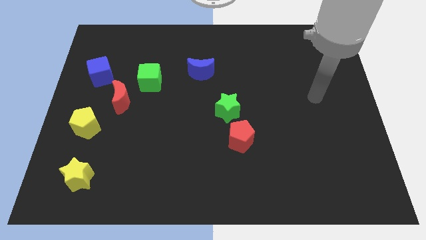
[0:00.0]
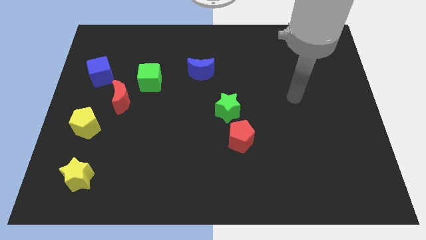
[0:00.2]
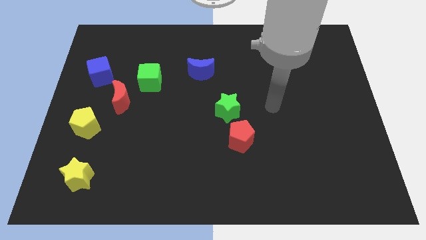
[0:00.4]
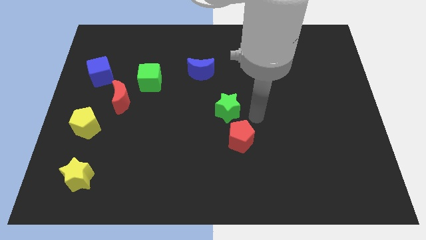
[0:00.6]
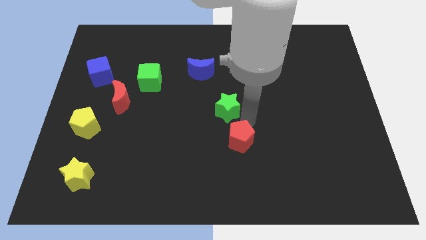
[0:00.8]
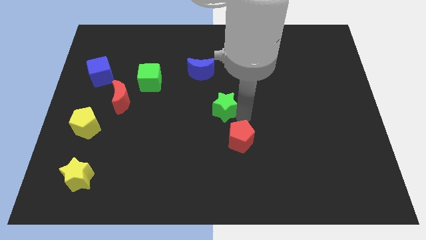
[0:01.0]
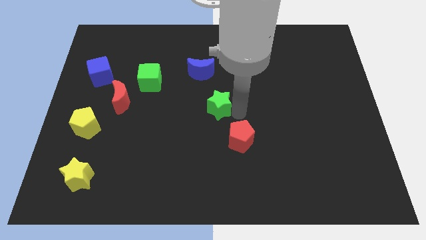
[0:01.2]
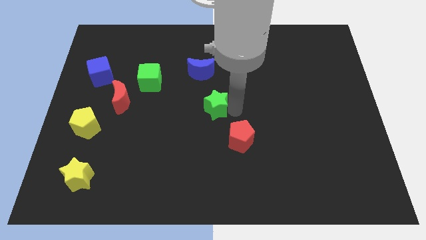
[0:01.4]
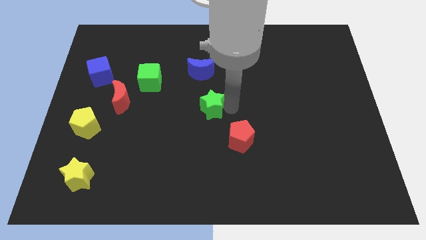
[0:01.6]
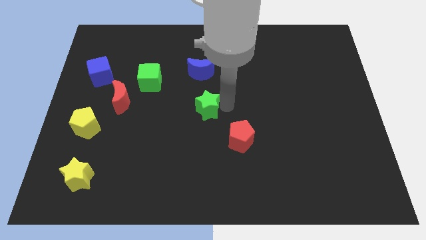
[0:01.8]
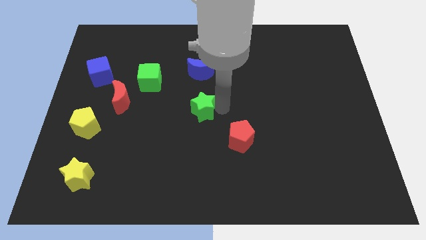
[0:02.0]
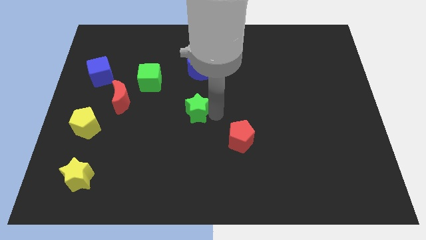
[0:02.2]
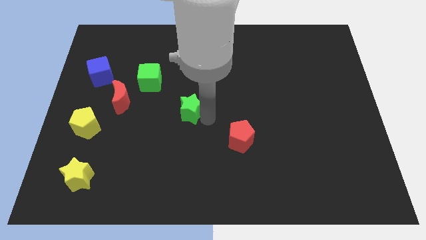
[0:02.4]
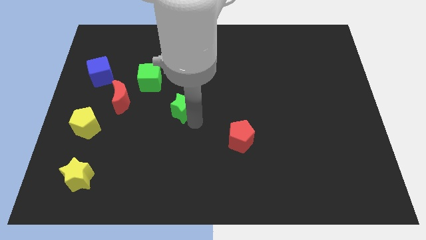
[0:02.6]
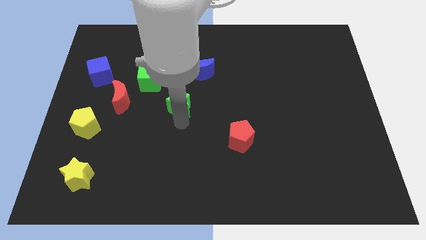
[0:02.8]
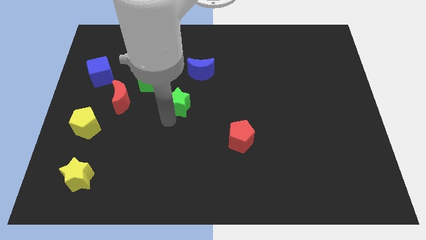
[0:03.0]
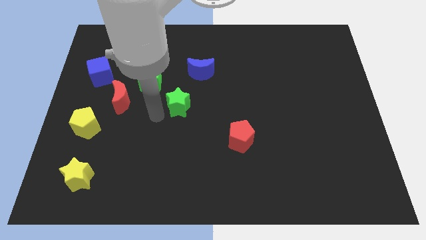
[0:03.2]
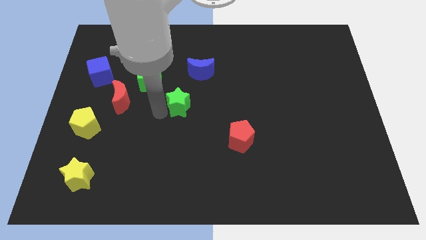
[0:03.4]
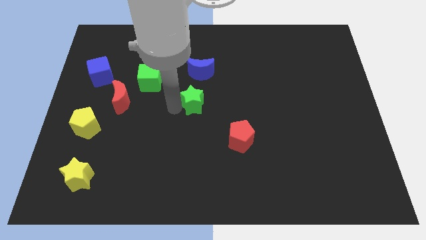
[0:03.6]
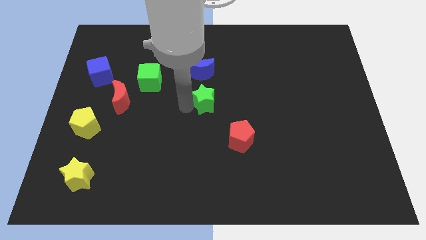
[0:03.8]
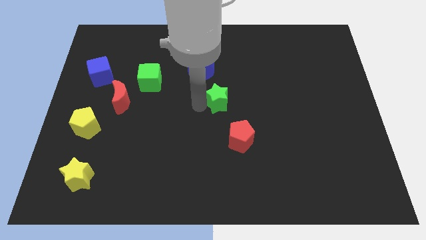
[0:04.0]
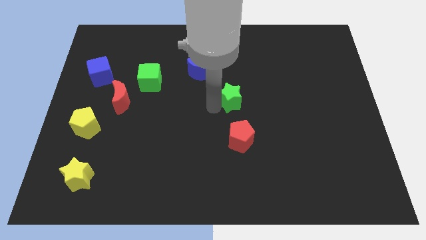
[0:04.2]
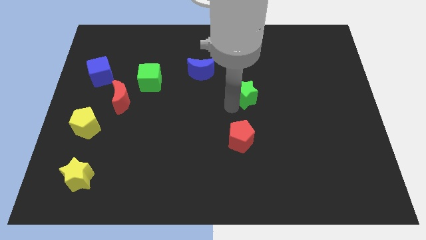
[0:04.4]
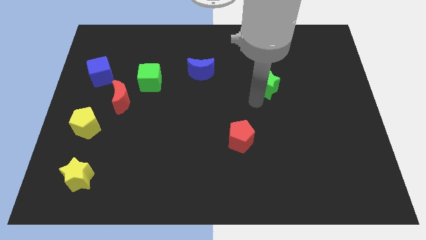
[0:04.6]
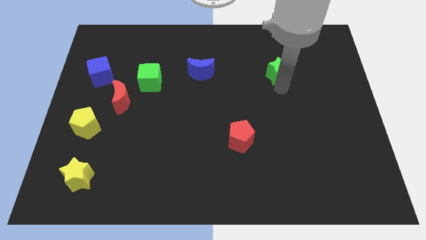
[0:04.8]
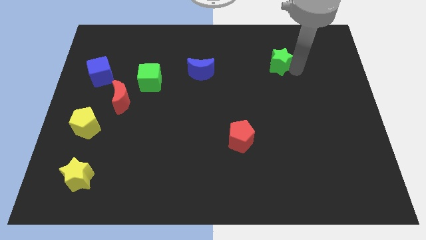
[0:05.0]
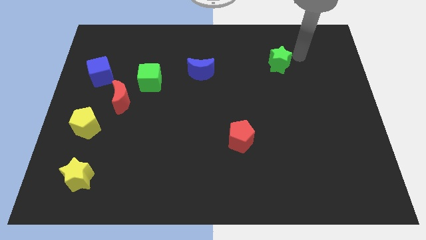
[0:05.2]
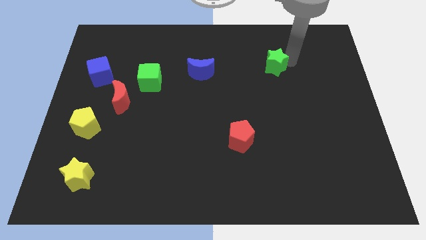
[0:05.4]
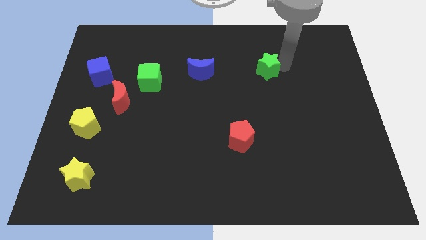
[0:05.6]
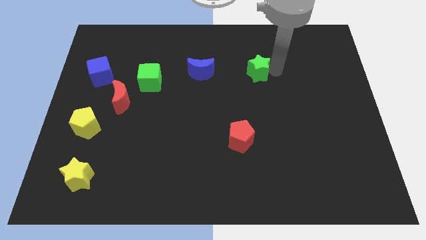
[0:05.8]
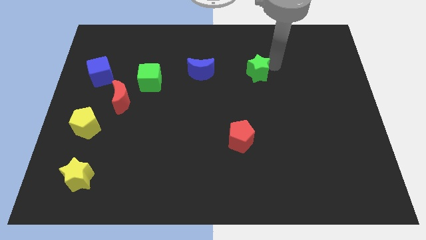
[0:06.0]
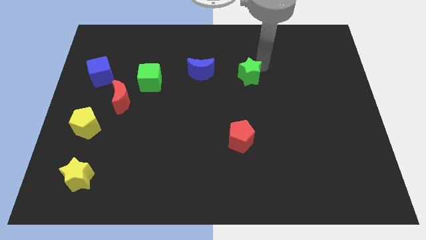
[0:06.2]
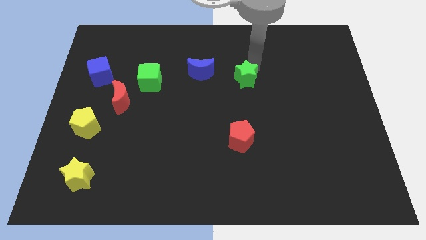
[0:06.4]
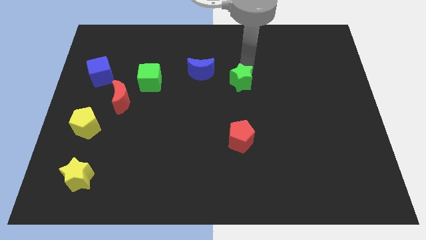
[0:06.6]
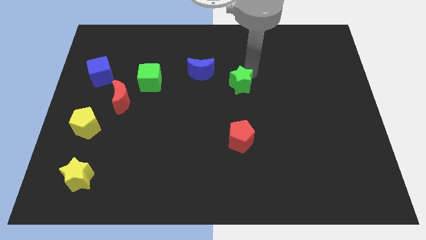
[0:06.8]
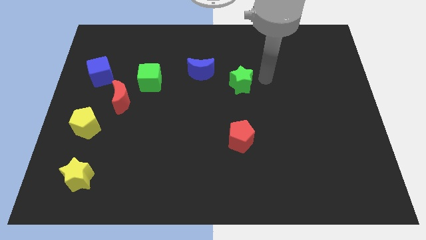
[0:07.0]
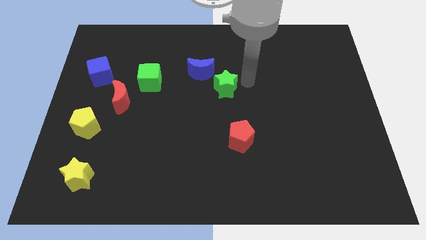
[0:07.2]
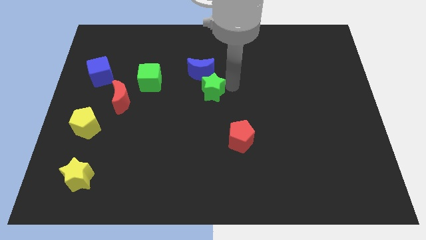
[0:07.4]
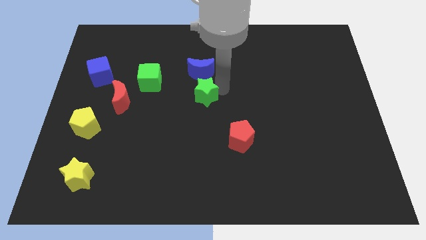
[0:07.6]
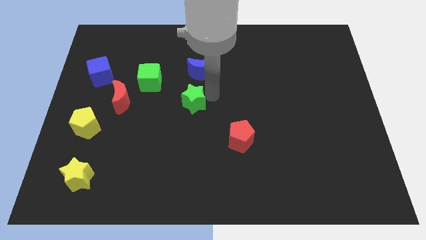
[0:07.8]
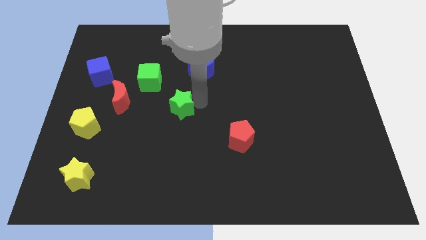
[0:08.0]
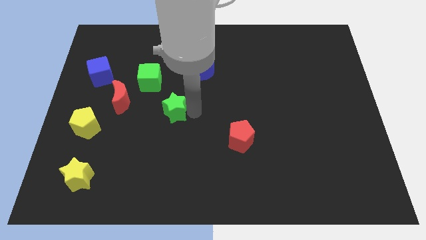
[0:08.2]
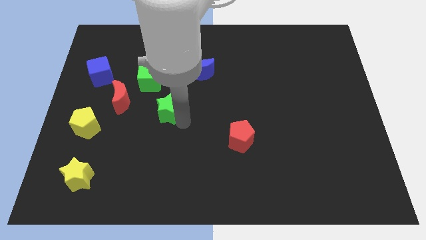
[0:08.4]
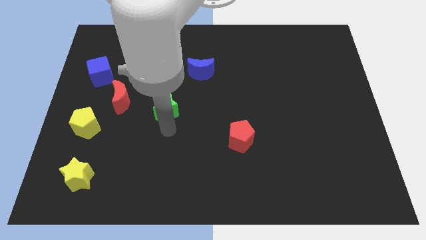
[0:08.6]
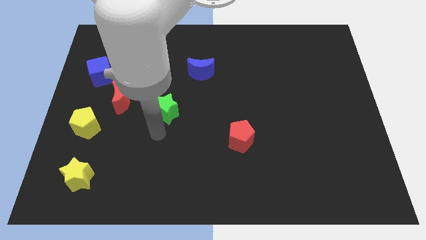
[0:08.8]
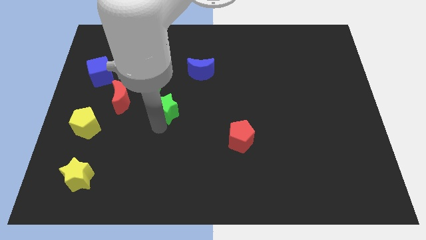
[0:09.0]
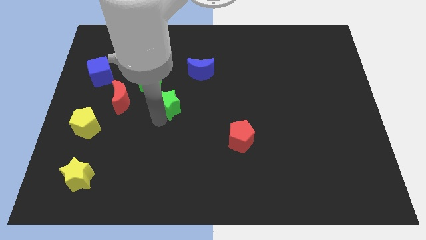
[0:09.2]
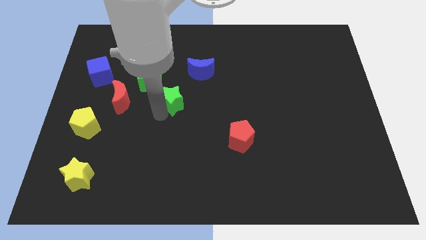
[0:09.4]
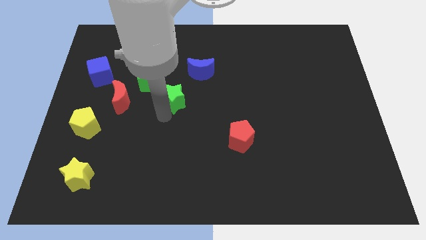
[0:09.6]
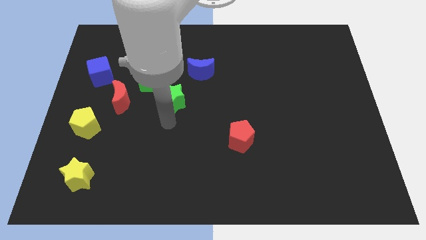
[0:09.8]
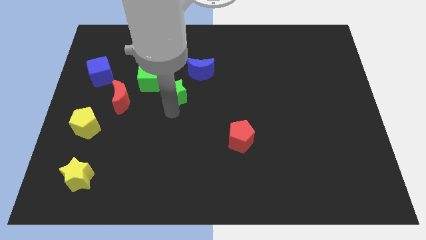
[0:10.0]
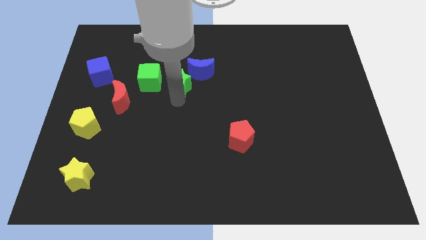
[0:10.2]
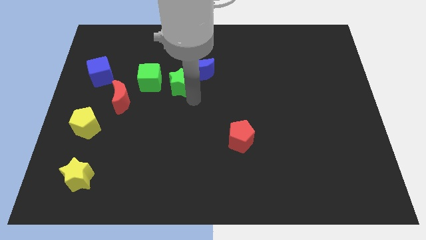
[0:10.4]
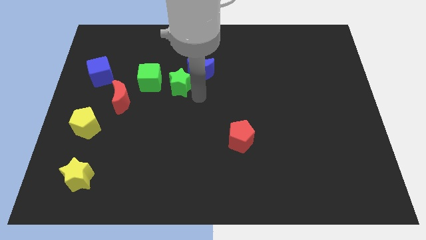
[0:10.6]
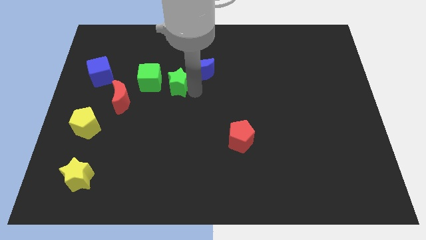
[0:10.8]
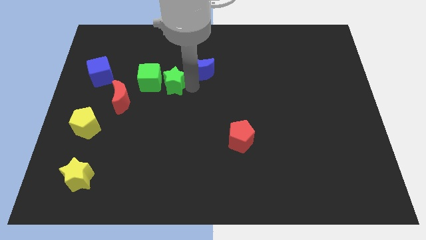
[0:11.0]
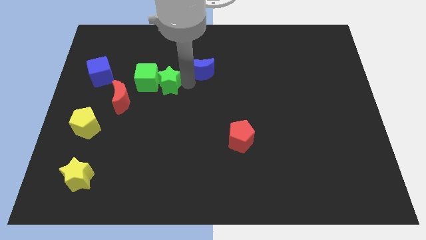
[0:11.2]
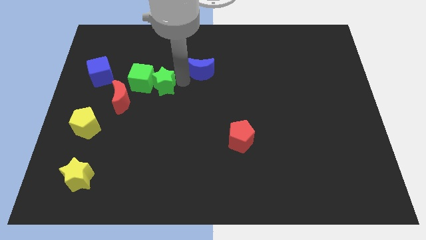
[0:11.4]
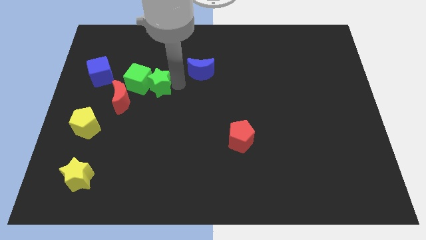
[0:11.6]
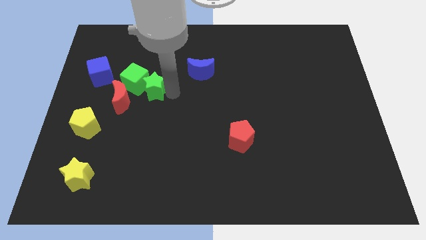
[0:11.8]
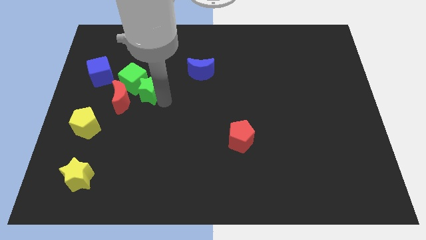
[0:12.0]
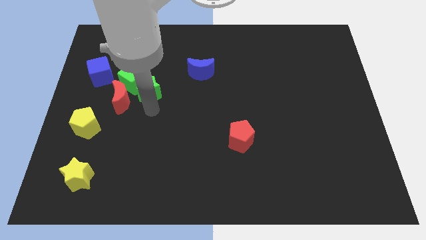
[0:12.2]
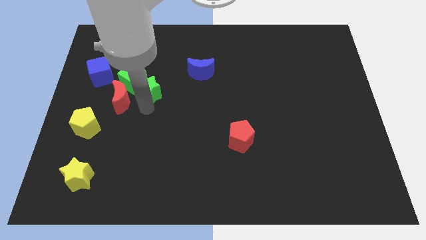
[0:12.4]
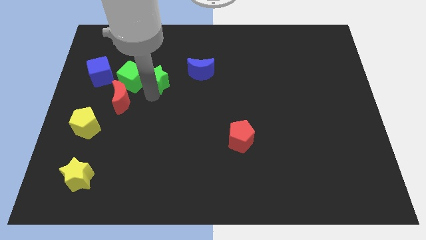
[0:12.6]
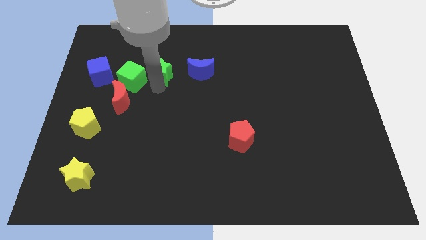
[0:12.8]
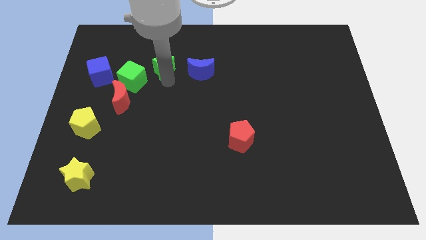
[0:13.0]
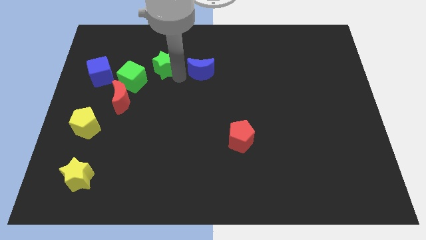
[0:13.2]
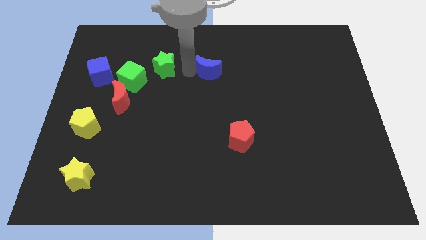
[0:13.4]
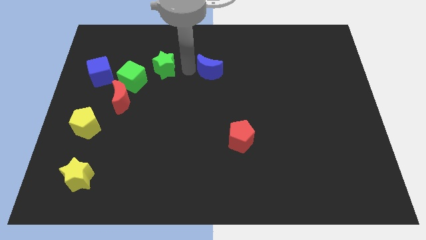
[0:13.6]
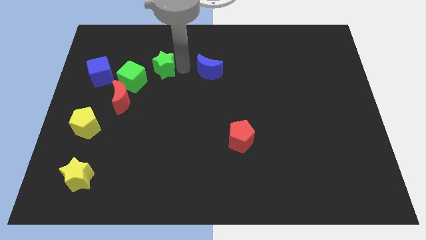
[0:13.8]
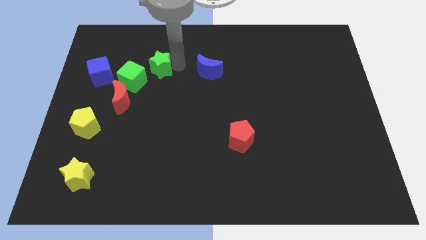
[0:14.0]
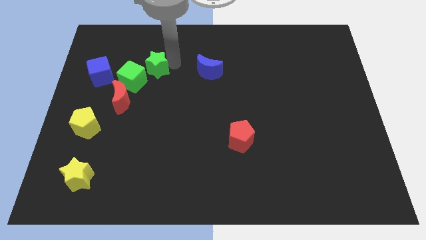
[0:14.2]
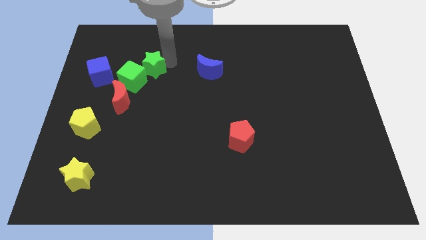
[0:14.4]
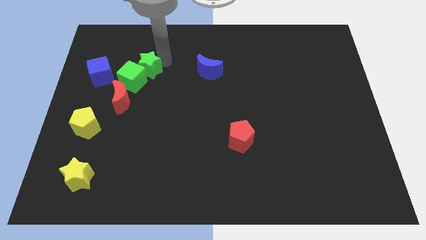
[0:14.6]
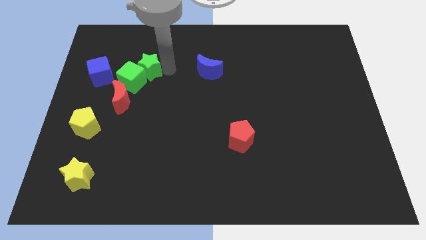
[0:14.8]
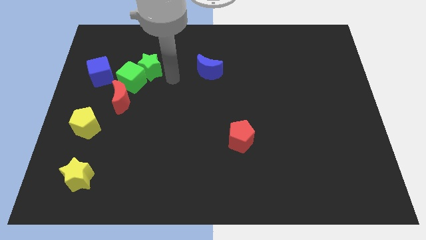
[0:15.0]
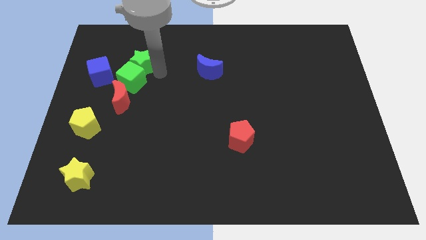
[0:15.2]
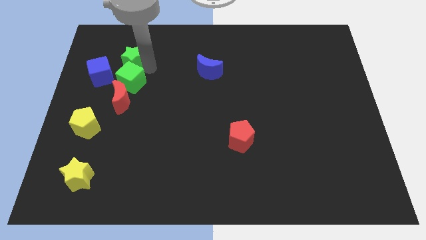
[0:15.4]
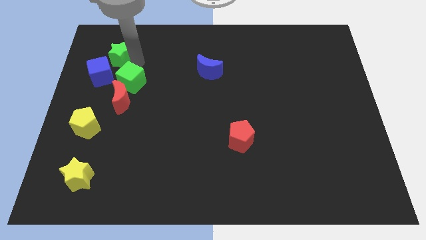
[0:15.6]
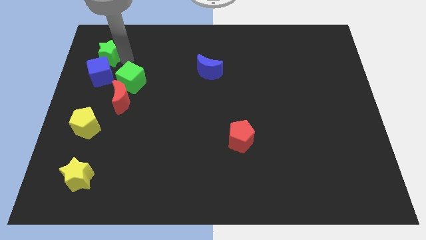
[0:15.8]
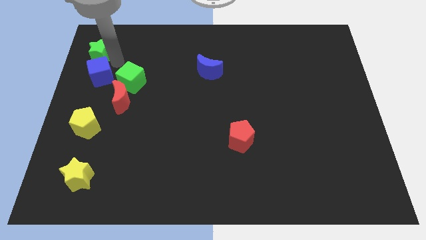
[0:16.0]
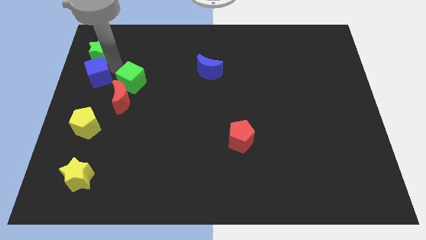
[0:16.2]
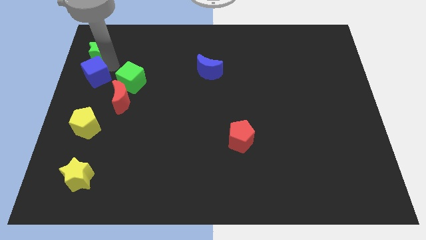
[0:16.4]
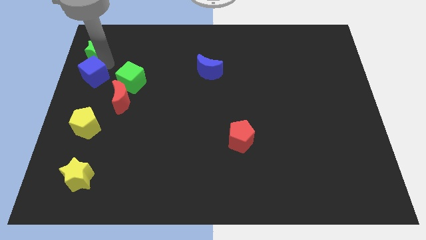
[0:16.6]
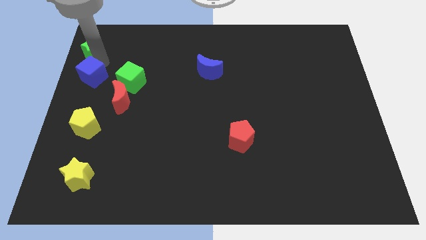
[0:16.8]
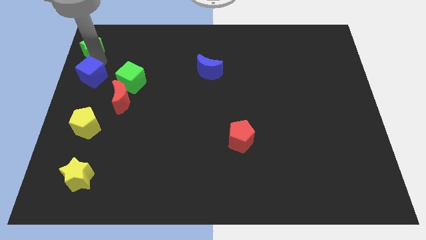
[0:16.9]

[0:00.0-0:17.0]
put the green star to the upper left corner
